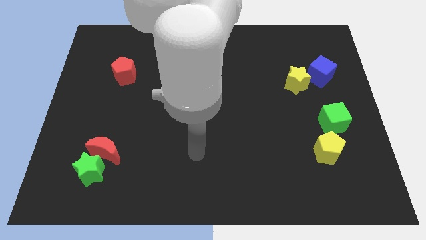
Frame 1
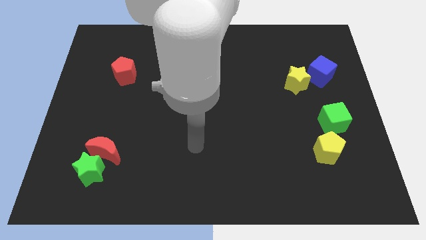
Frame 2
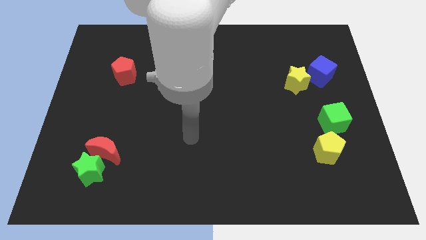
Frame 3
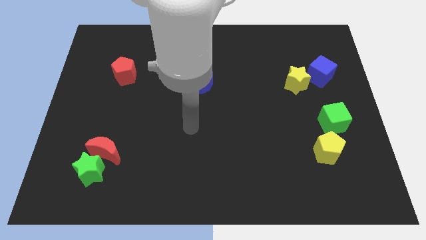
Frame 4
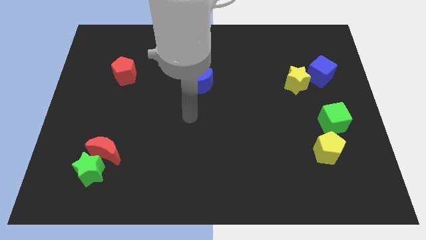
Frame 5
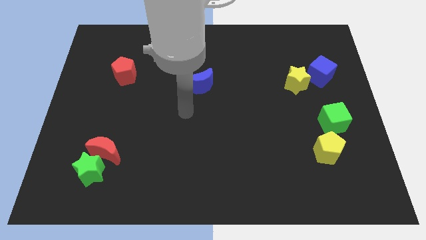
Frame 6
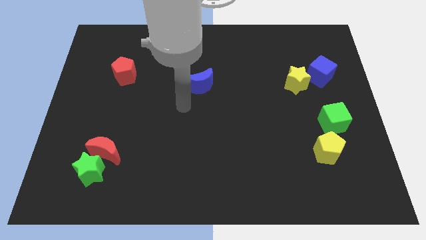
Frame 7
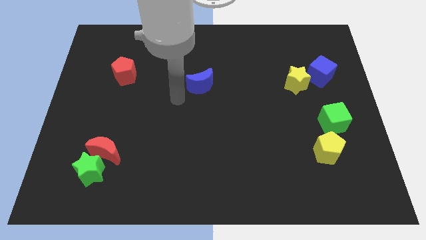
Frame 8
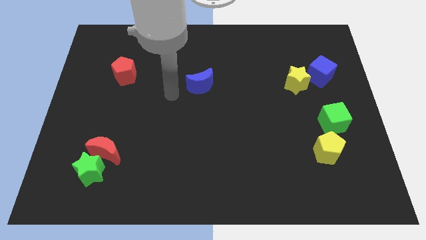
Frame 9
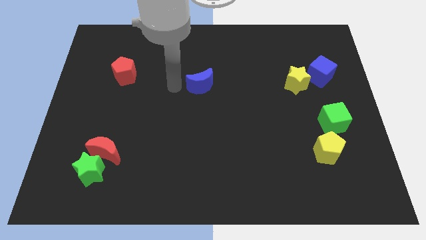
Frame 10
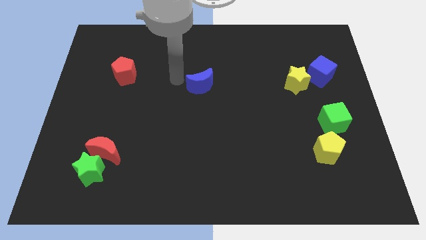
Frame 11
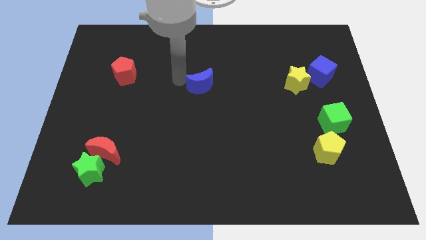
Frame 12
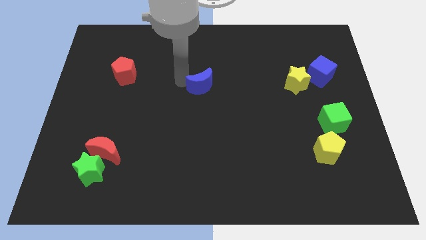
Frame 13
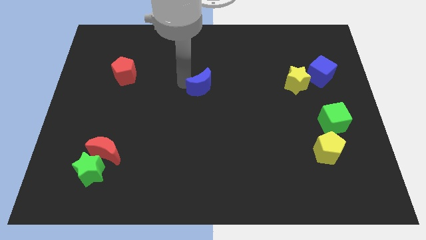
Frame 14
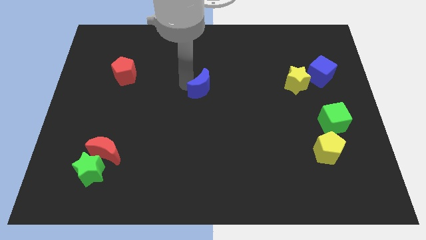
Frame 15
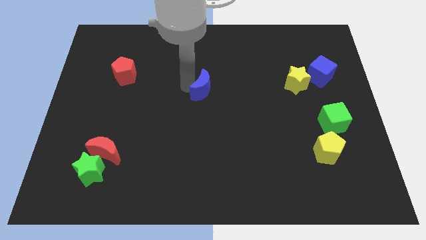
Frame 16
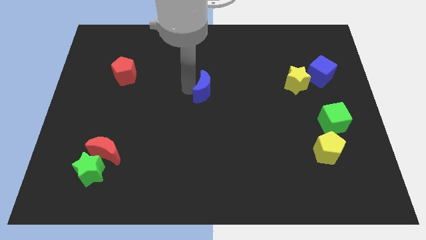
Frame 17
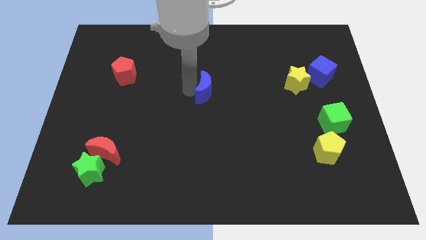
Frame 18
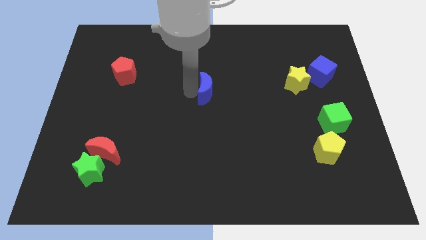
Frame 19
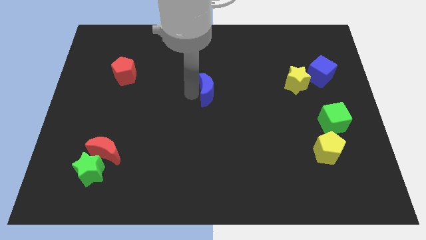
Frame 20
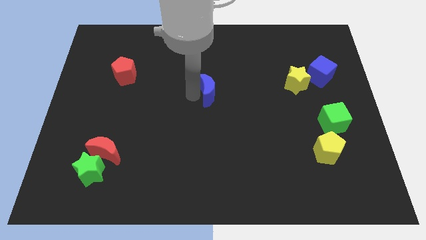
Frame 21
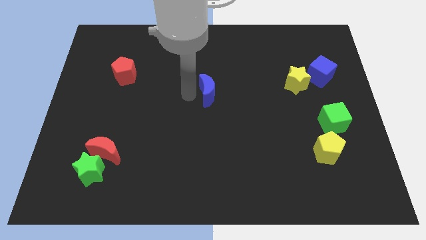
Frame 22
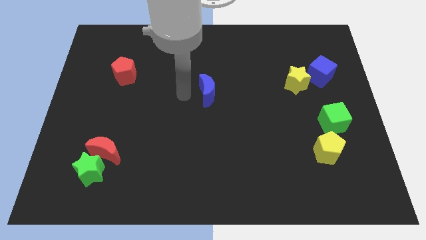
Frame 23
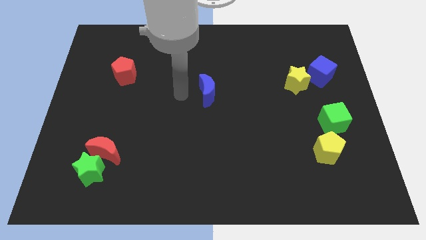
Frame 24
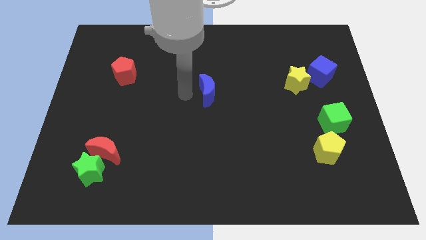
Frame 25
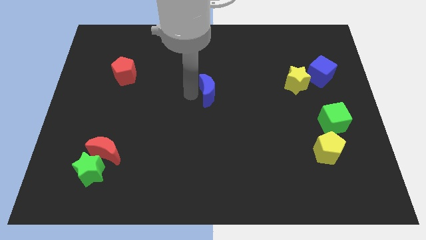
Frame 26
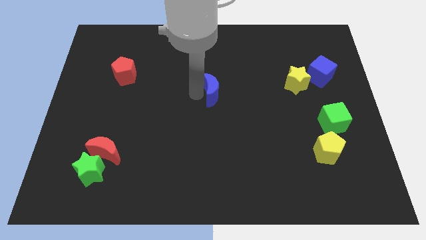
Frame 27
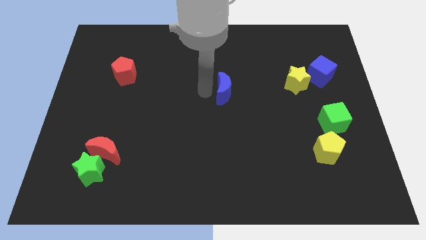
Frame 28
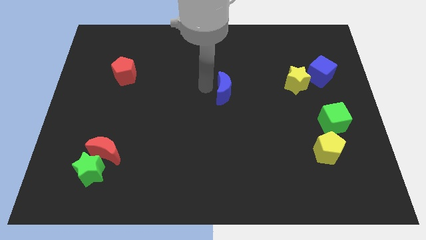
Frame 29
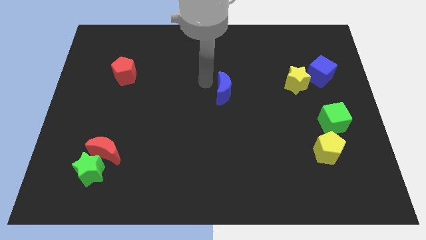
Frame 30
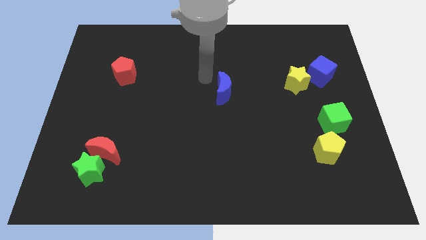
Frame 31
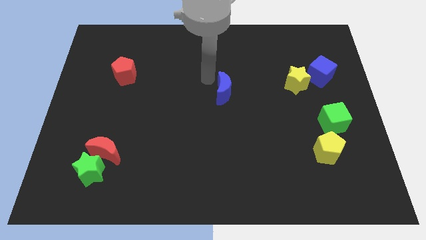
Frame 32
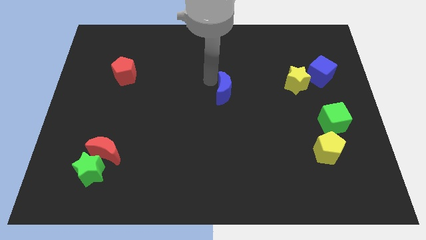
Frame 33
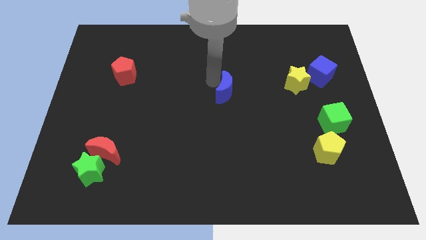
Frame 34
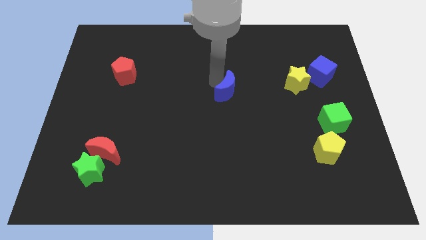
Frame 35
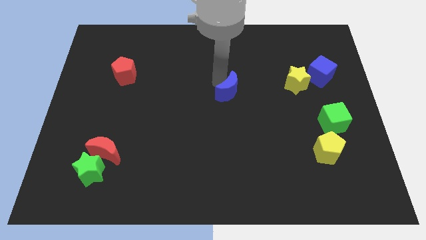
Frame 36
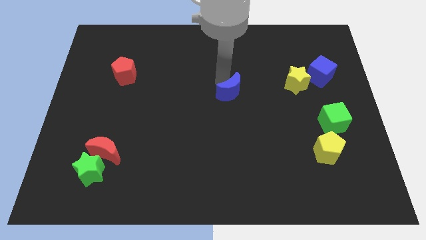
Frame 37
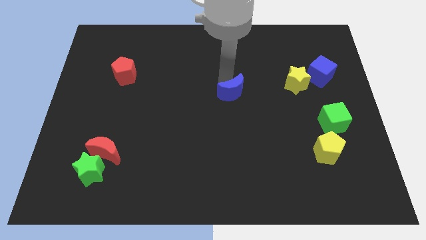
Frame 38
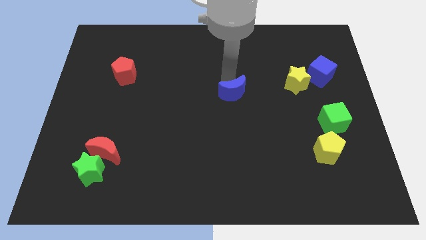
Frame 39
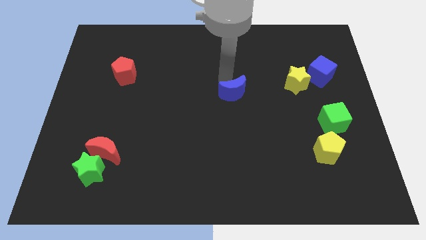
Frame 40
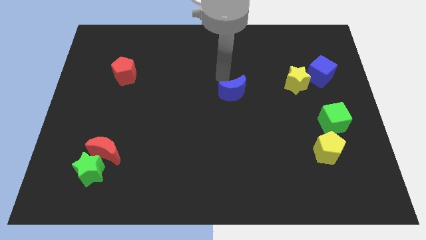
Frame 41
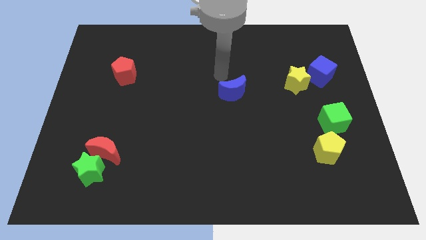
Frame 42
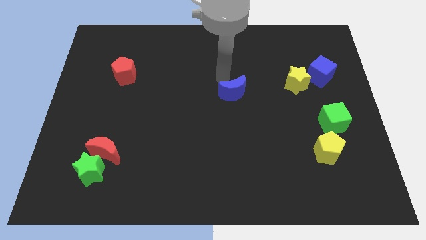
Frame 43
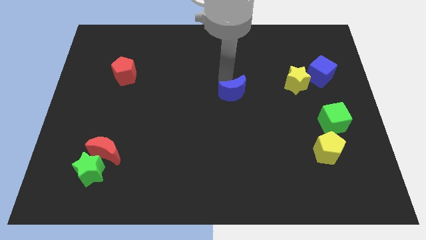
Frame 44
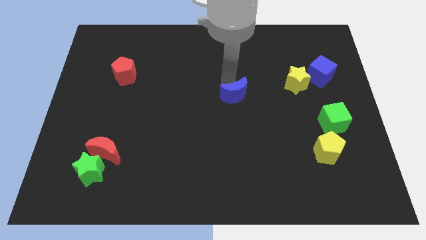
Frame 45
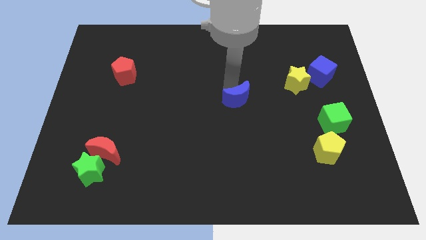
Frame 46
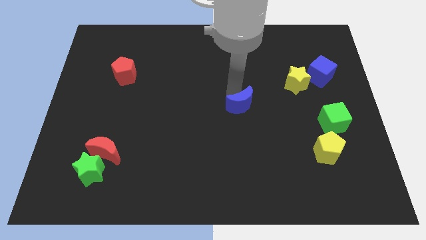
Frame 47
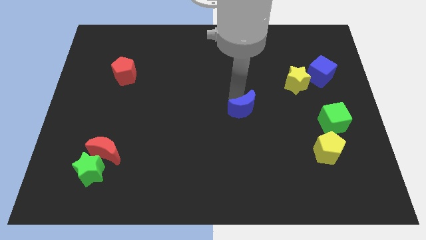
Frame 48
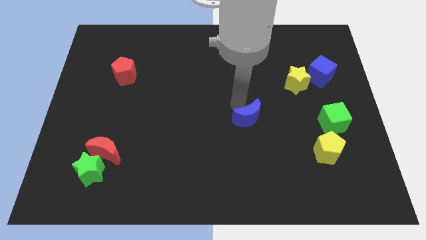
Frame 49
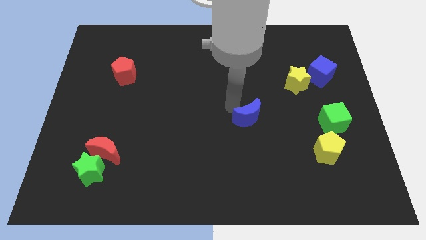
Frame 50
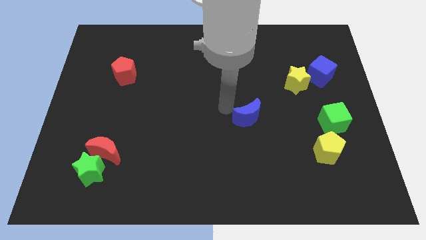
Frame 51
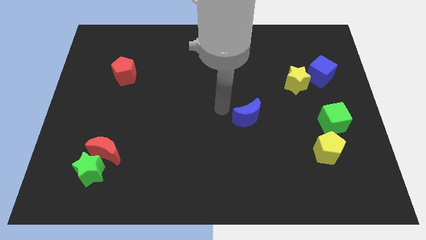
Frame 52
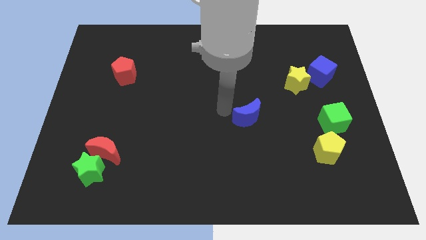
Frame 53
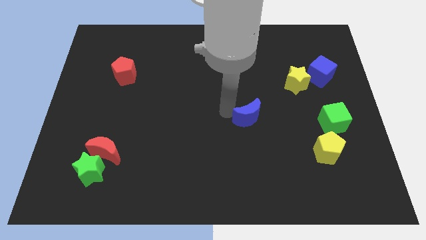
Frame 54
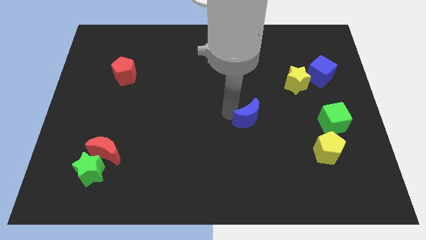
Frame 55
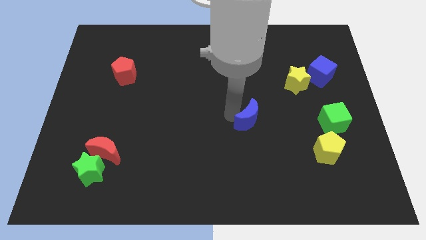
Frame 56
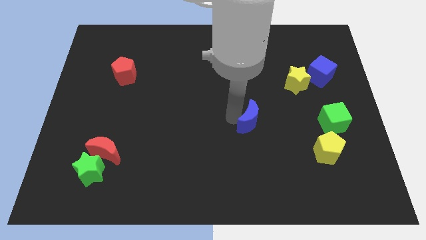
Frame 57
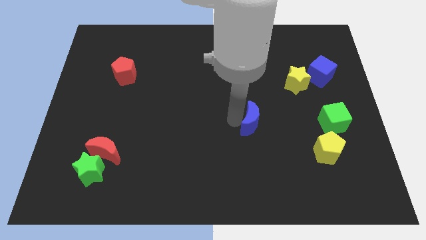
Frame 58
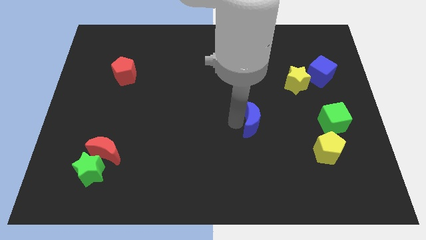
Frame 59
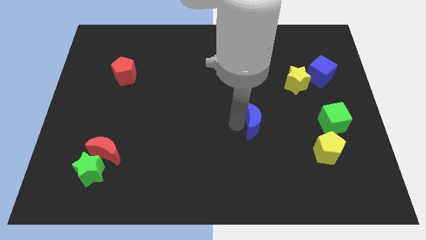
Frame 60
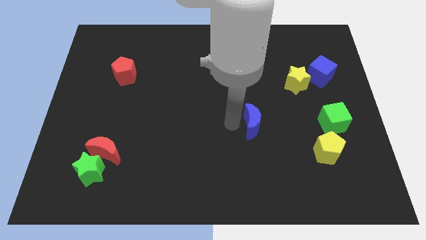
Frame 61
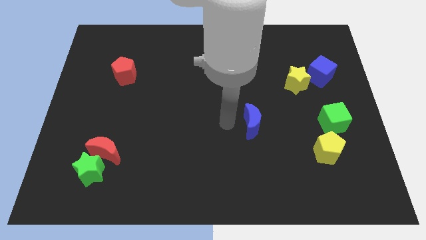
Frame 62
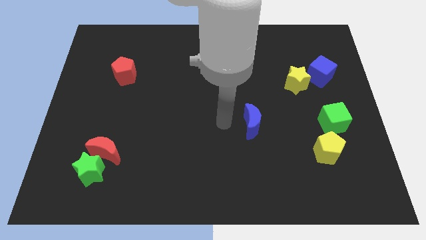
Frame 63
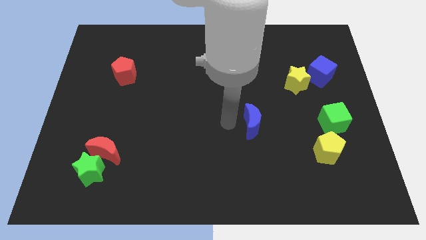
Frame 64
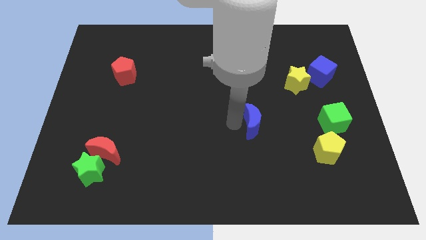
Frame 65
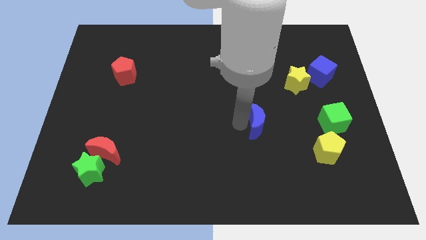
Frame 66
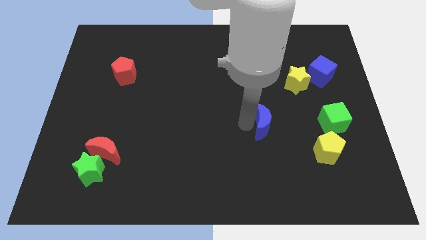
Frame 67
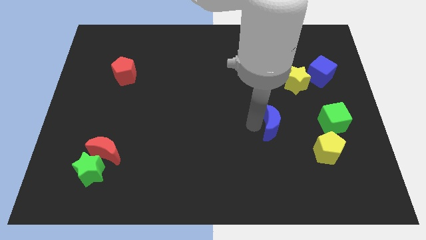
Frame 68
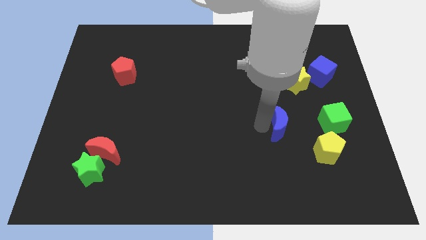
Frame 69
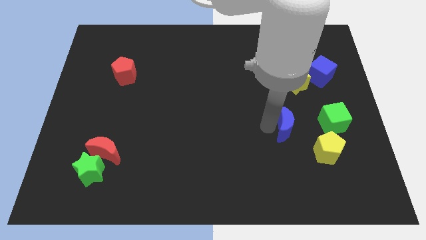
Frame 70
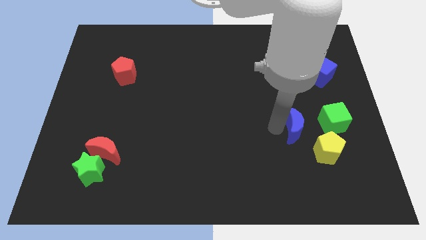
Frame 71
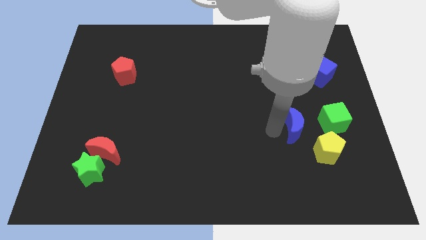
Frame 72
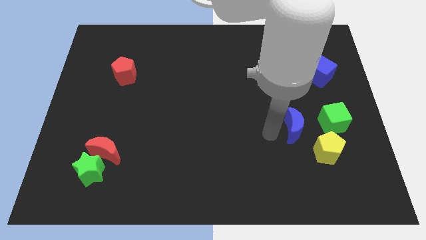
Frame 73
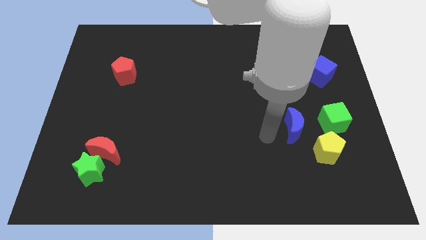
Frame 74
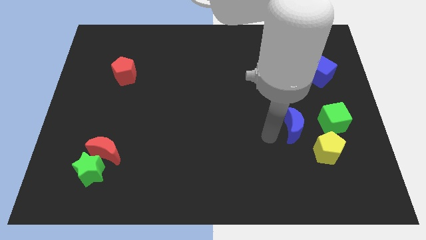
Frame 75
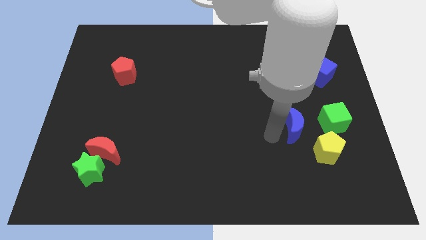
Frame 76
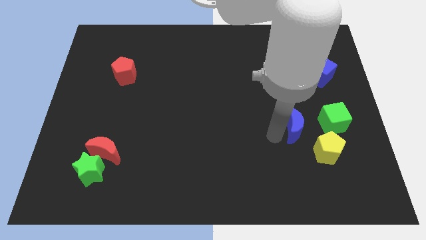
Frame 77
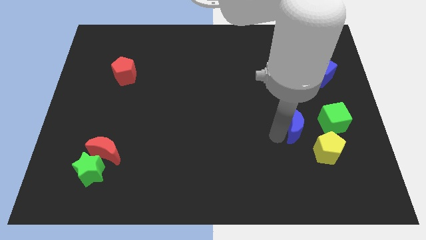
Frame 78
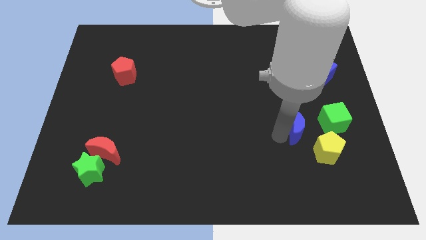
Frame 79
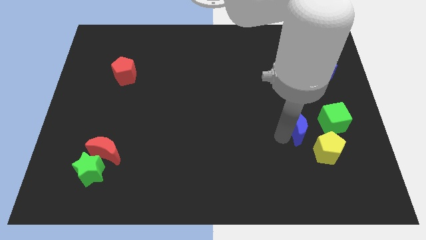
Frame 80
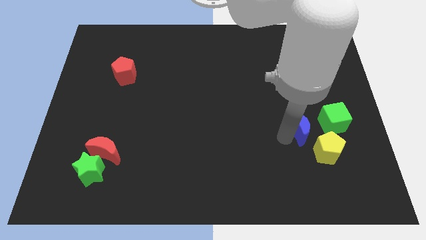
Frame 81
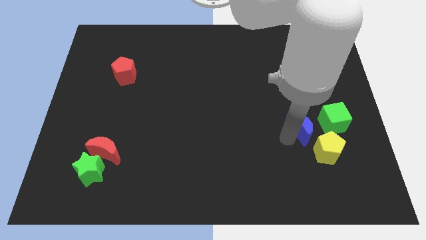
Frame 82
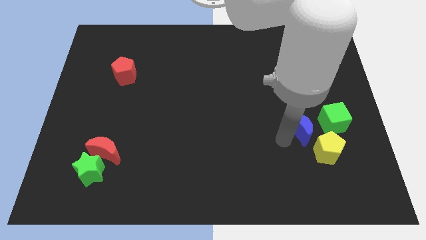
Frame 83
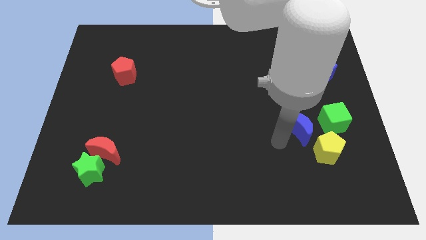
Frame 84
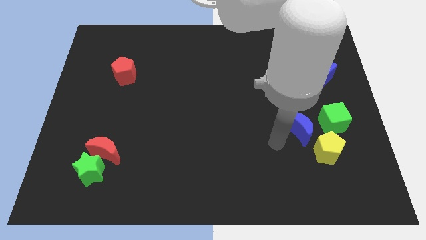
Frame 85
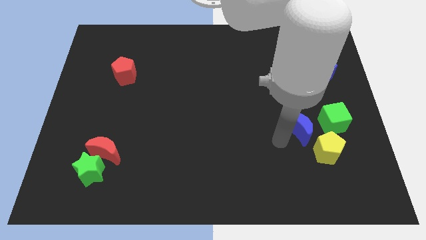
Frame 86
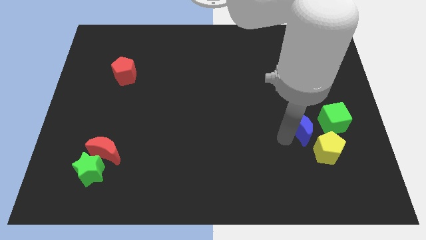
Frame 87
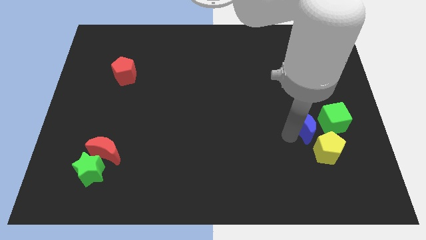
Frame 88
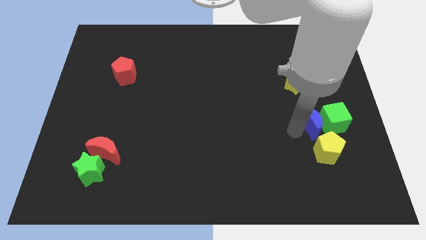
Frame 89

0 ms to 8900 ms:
move the blue moon next to the green cube
